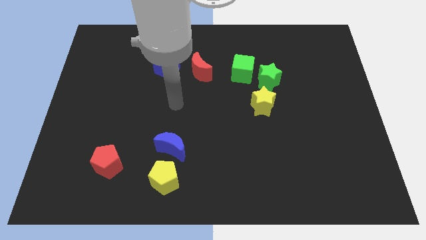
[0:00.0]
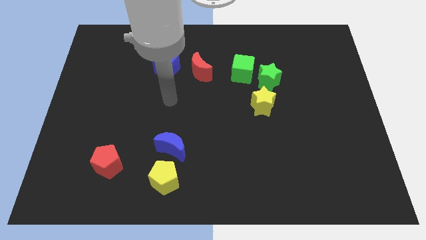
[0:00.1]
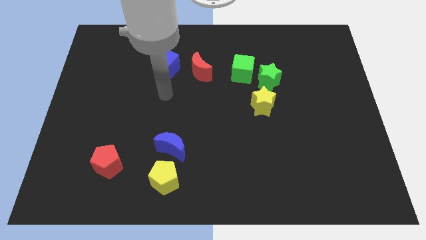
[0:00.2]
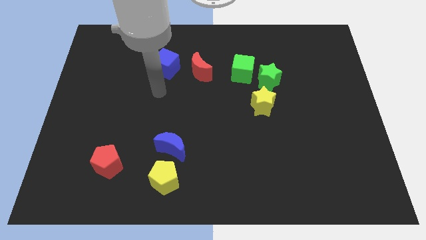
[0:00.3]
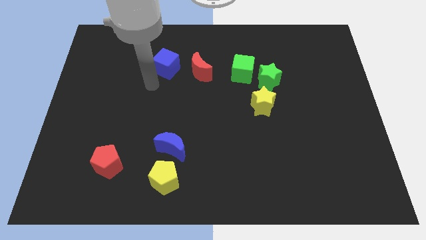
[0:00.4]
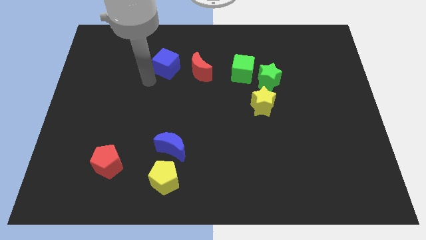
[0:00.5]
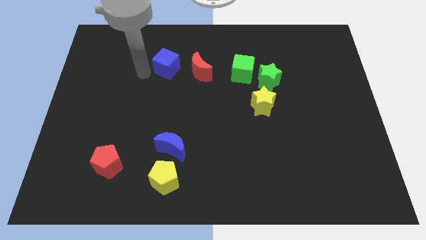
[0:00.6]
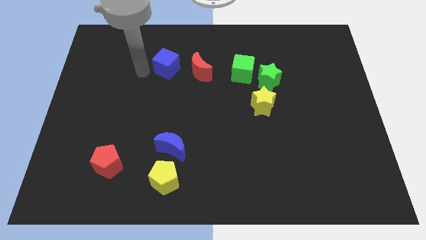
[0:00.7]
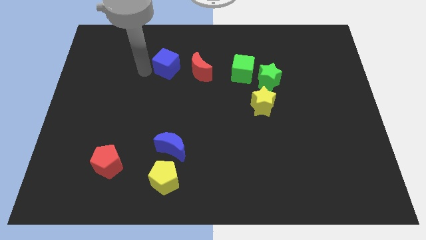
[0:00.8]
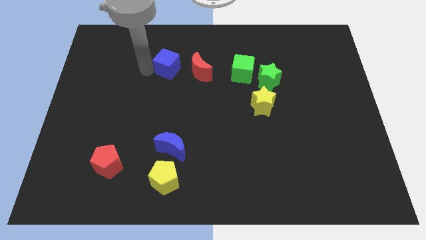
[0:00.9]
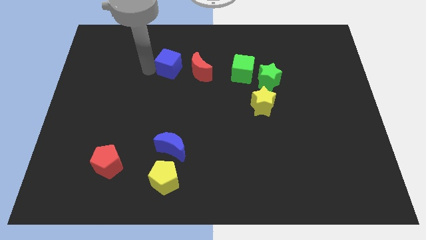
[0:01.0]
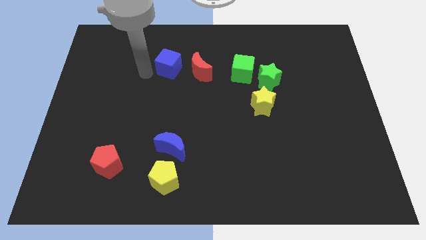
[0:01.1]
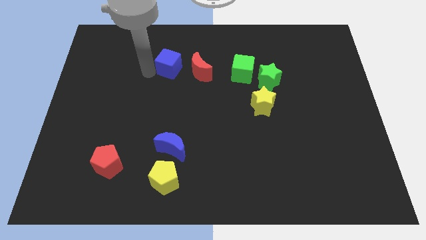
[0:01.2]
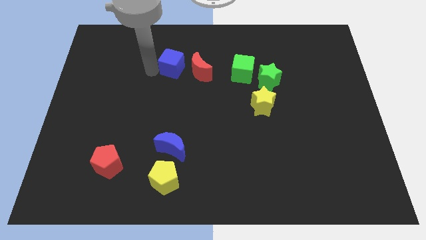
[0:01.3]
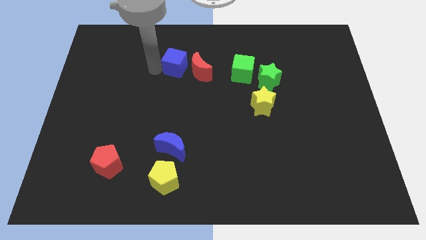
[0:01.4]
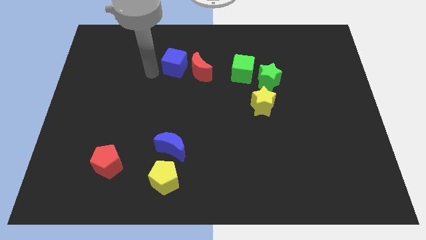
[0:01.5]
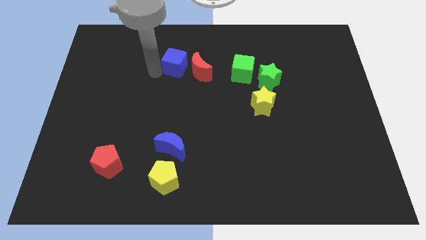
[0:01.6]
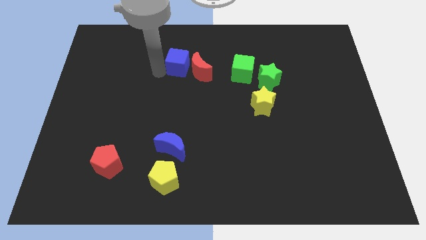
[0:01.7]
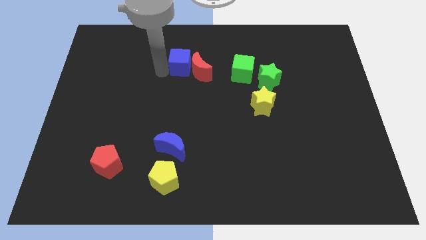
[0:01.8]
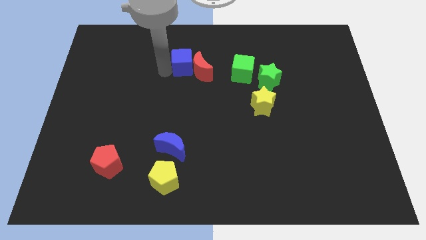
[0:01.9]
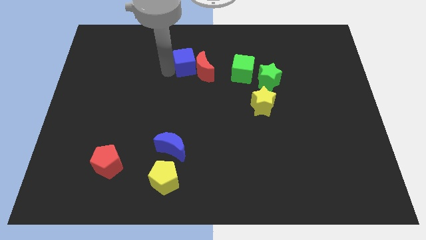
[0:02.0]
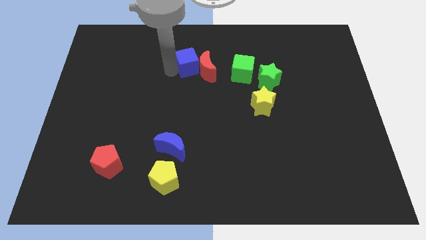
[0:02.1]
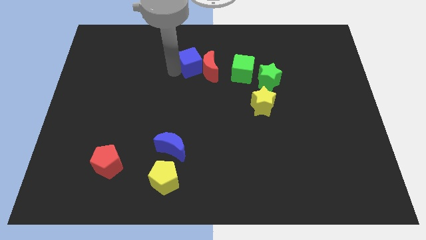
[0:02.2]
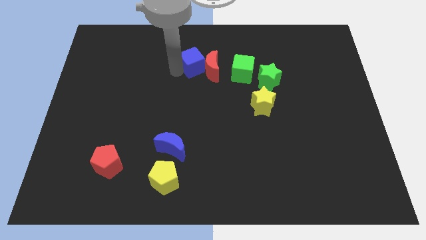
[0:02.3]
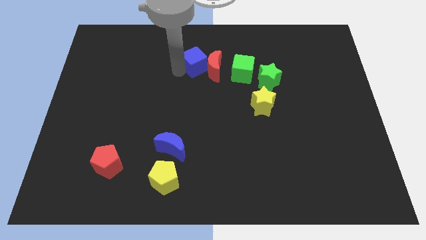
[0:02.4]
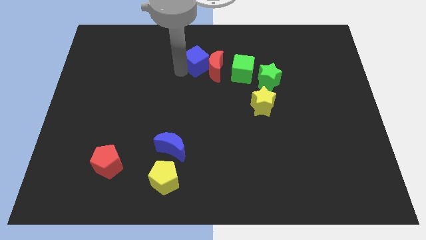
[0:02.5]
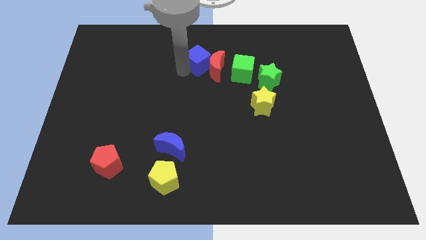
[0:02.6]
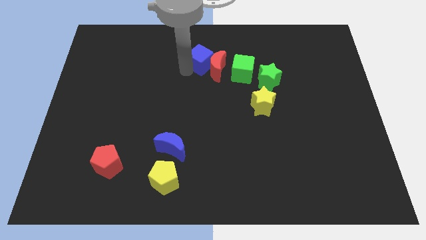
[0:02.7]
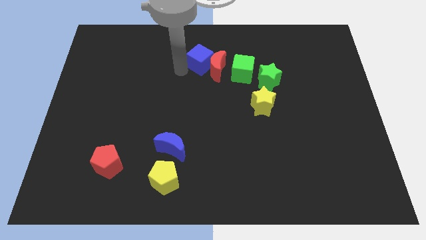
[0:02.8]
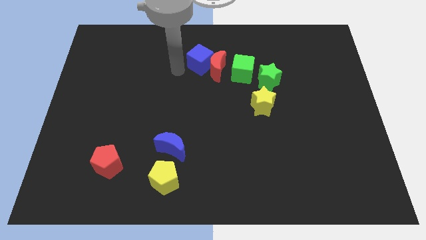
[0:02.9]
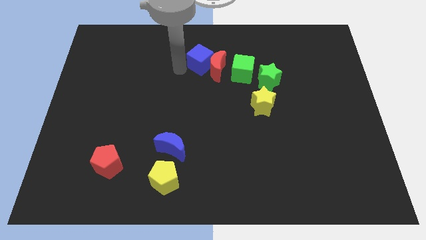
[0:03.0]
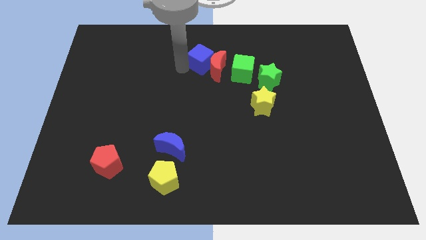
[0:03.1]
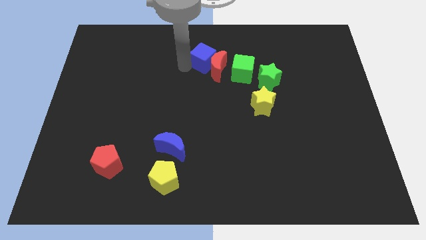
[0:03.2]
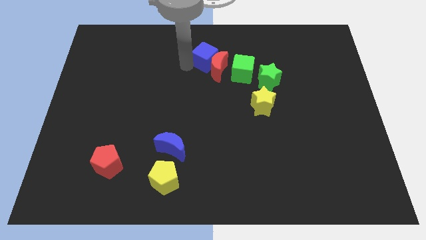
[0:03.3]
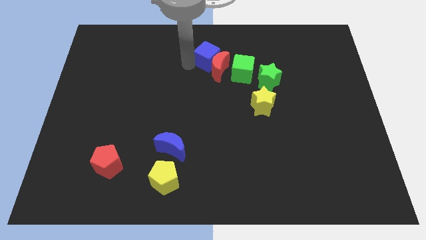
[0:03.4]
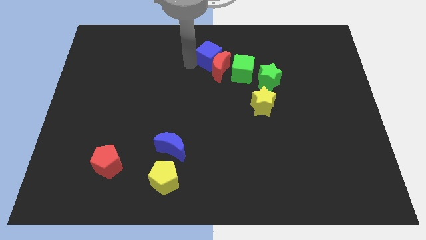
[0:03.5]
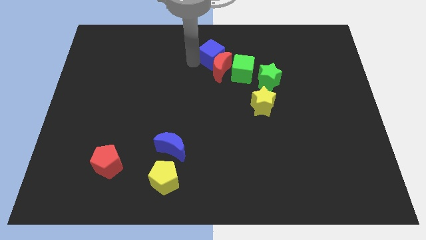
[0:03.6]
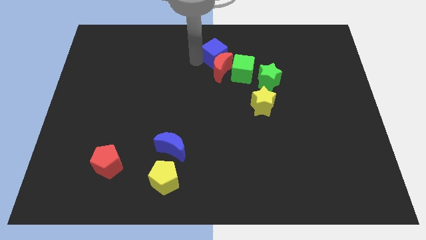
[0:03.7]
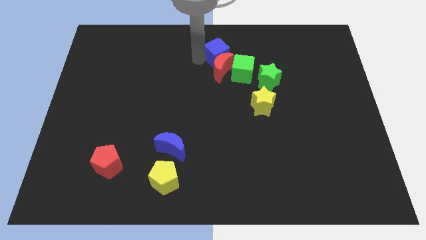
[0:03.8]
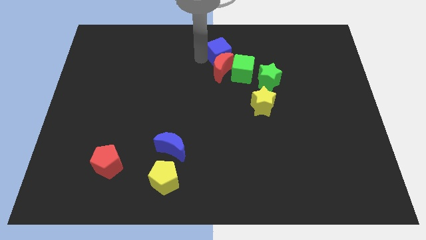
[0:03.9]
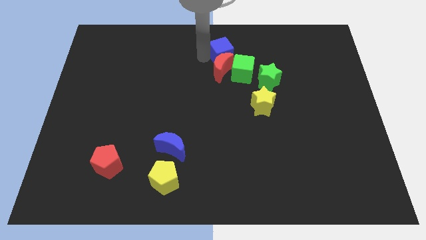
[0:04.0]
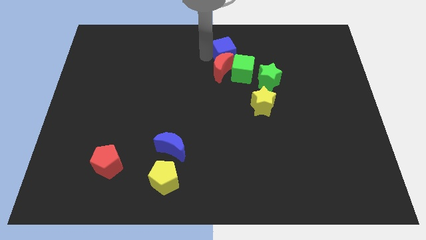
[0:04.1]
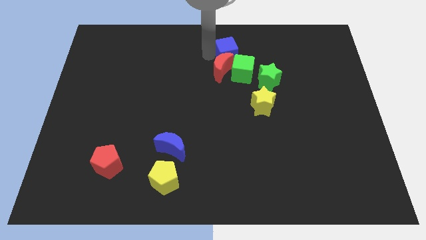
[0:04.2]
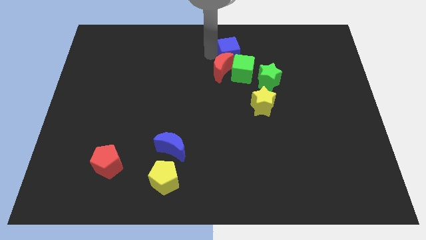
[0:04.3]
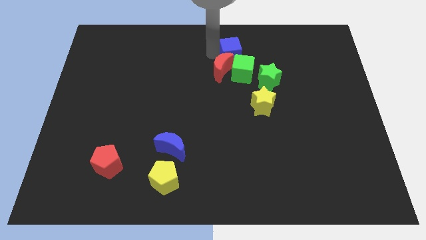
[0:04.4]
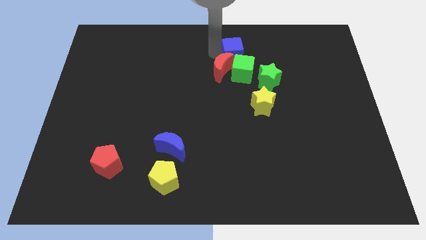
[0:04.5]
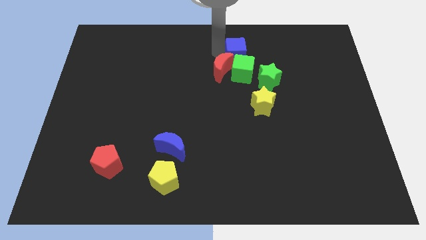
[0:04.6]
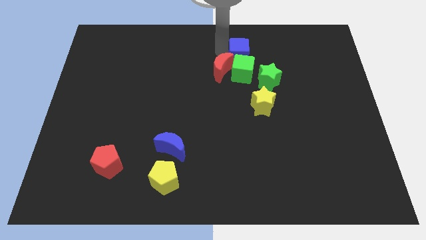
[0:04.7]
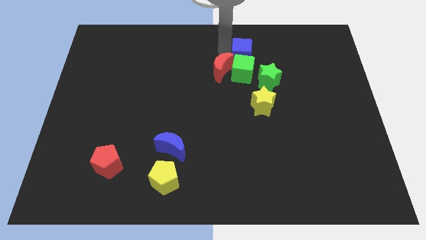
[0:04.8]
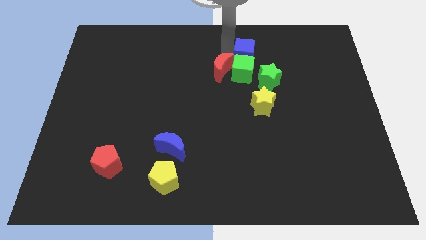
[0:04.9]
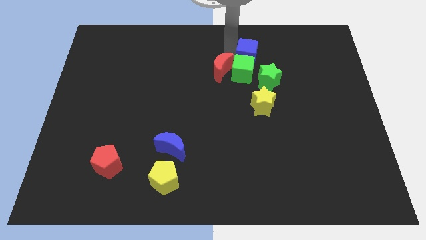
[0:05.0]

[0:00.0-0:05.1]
move the blue cube to the right

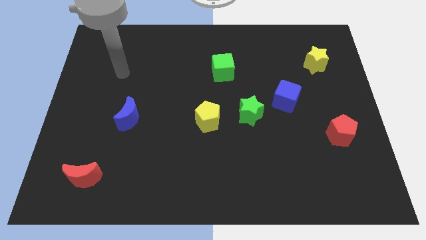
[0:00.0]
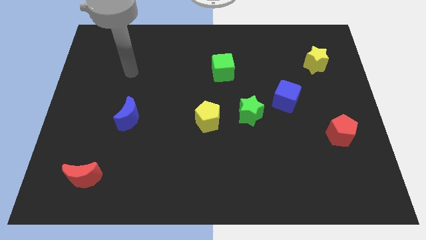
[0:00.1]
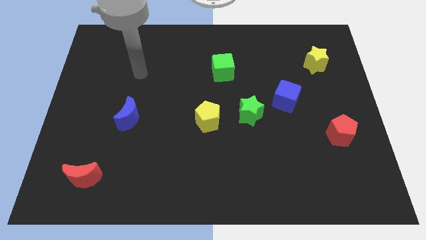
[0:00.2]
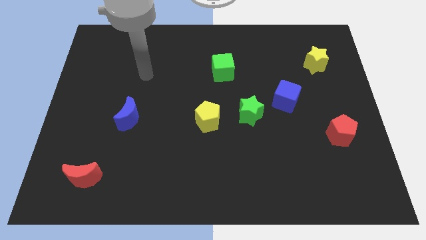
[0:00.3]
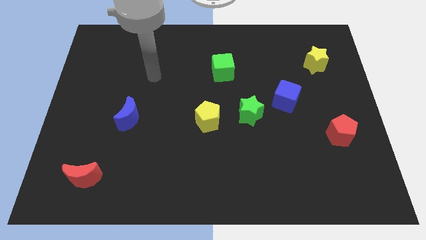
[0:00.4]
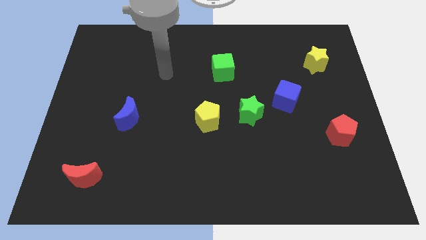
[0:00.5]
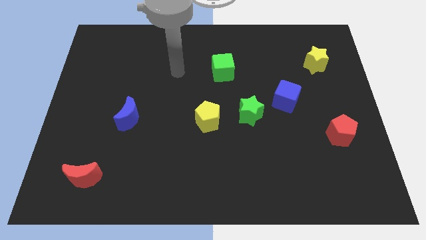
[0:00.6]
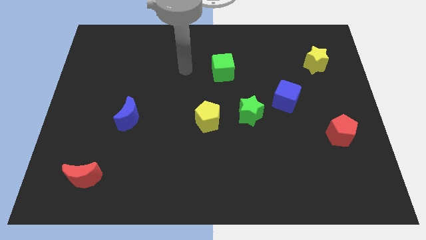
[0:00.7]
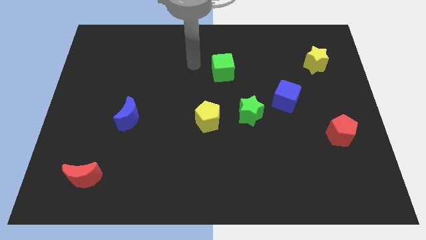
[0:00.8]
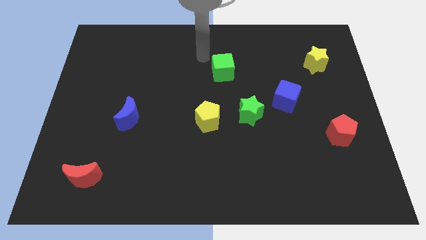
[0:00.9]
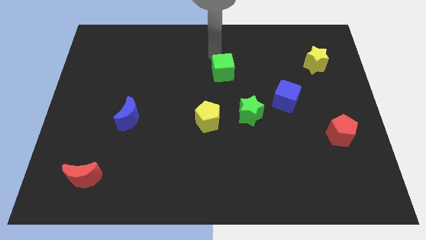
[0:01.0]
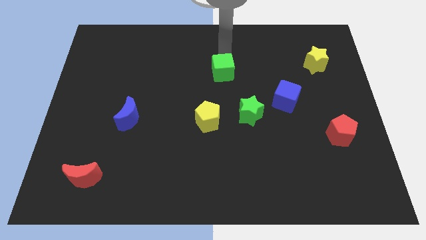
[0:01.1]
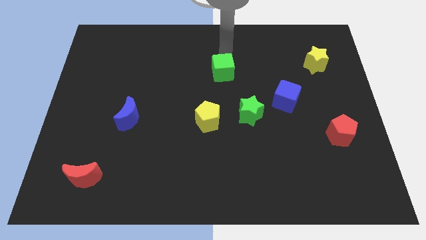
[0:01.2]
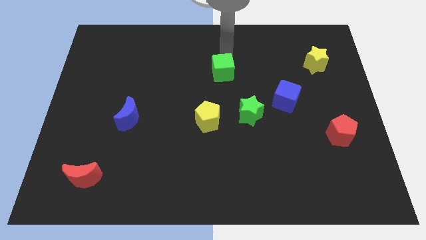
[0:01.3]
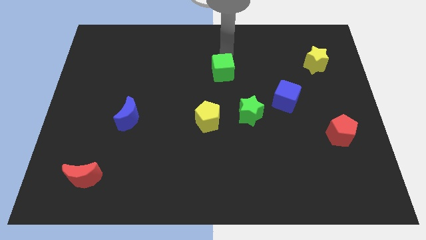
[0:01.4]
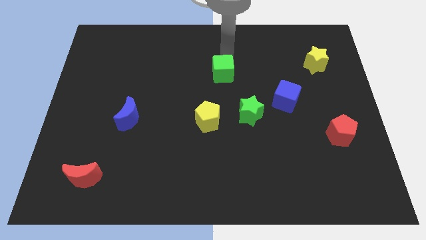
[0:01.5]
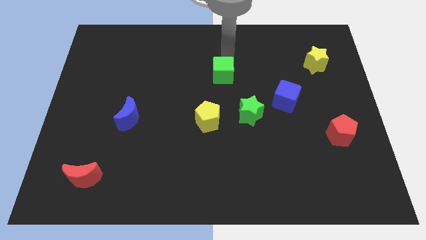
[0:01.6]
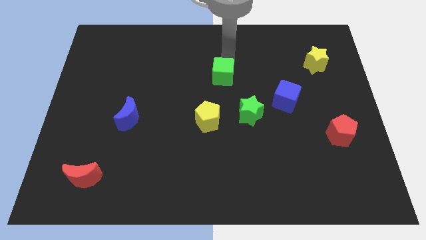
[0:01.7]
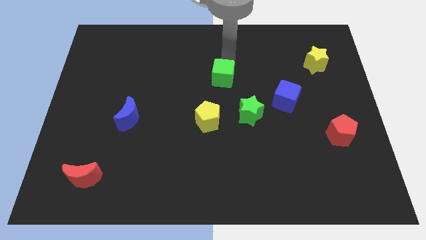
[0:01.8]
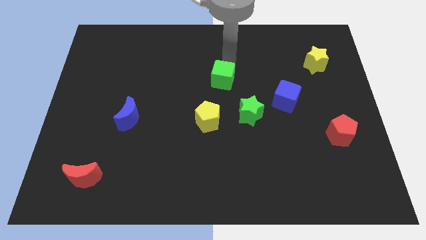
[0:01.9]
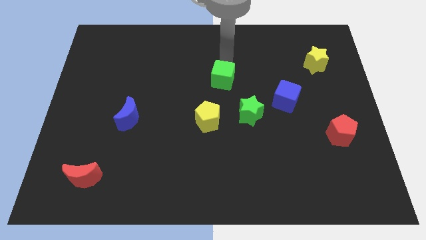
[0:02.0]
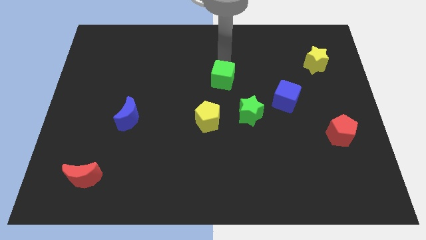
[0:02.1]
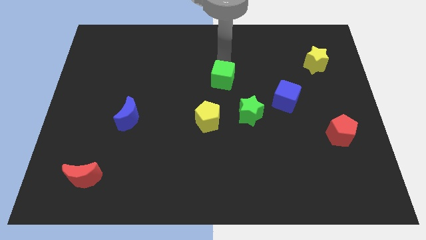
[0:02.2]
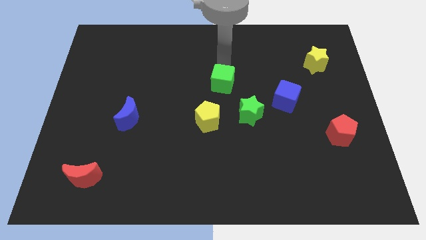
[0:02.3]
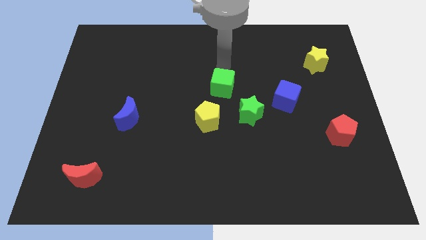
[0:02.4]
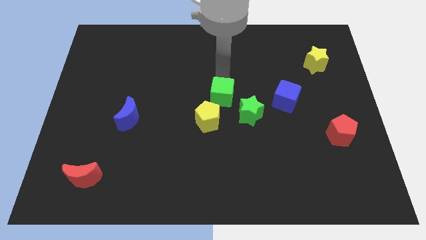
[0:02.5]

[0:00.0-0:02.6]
slightly move the green cube downwards
